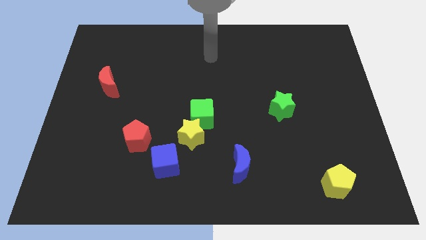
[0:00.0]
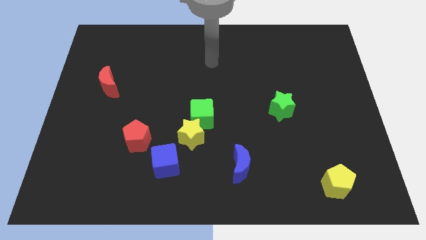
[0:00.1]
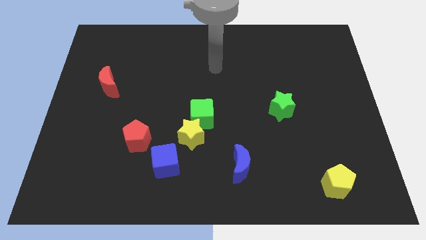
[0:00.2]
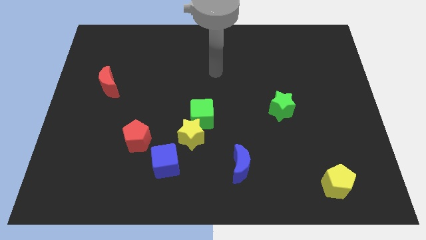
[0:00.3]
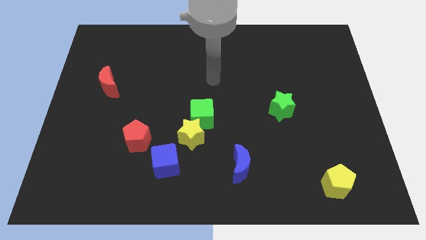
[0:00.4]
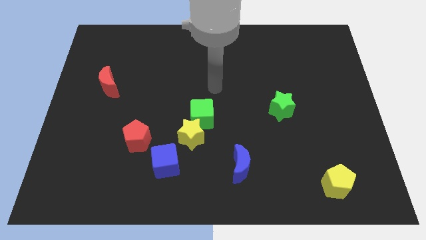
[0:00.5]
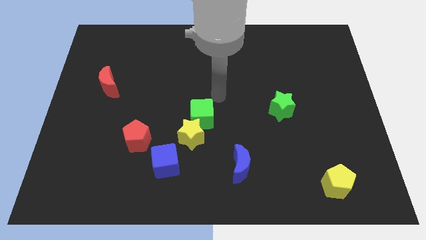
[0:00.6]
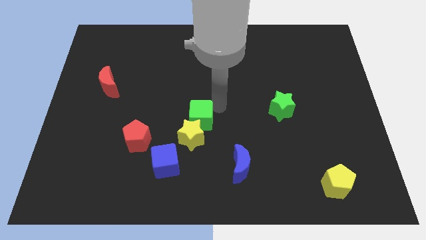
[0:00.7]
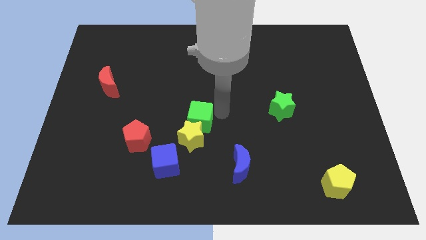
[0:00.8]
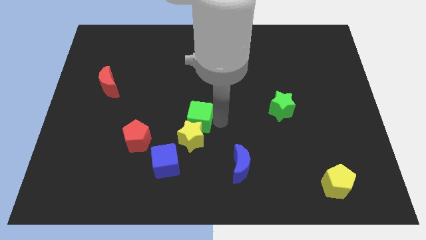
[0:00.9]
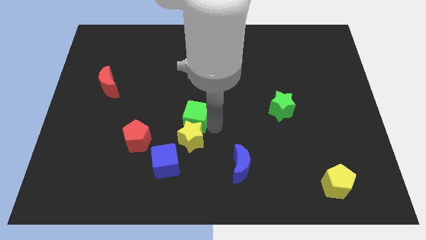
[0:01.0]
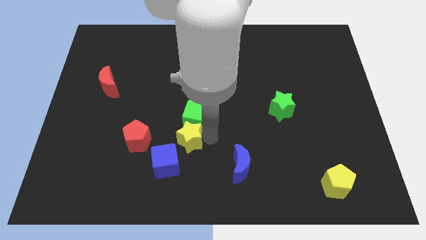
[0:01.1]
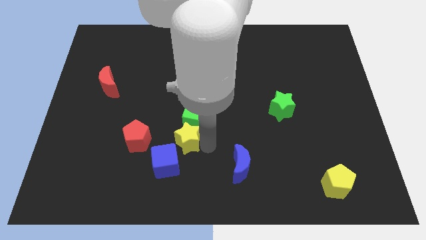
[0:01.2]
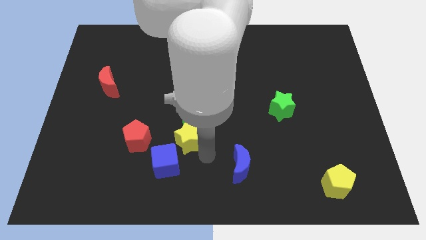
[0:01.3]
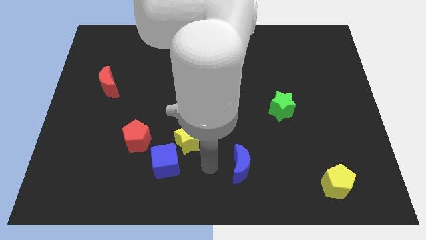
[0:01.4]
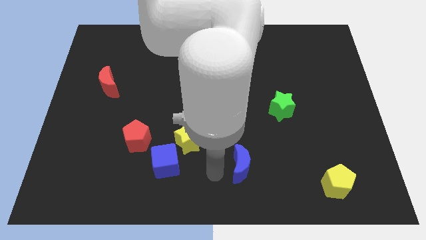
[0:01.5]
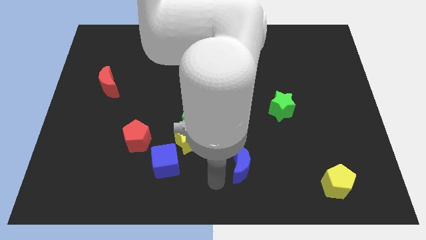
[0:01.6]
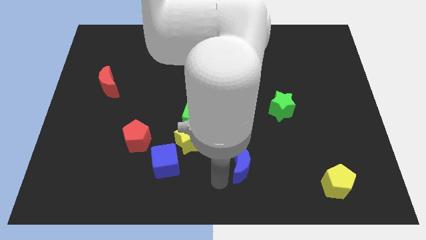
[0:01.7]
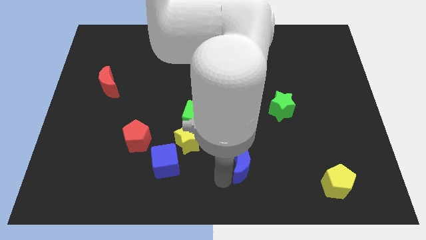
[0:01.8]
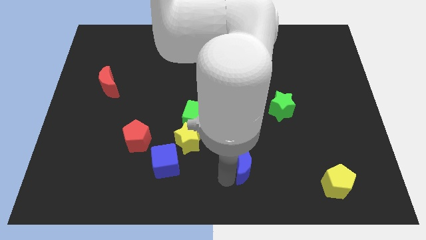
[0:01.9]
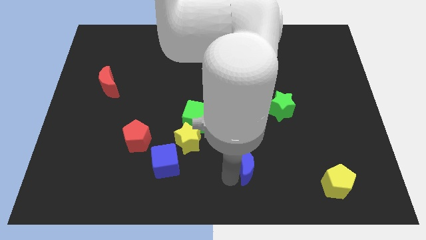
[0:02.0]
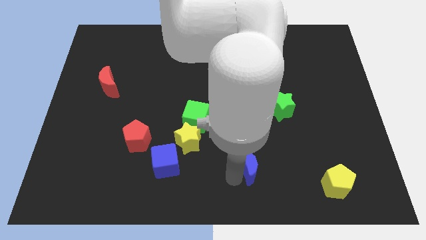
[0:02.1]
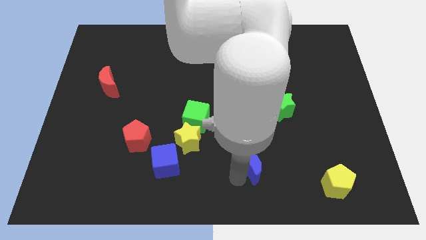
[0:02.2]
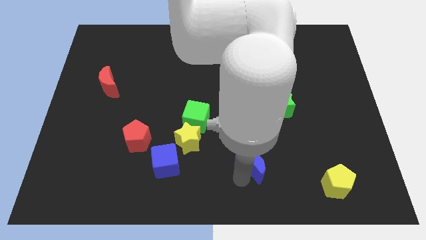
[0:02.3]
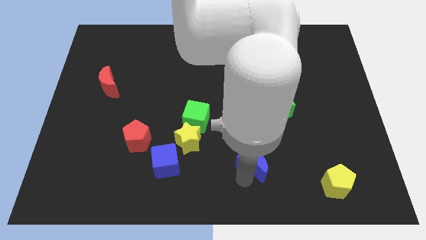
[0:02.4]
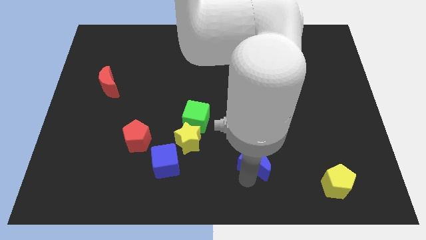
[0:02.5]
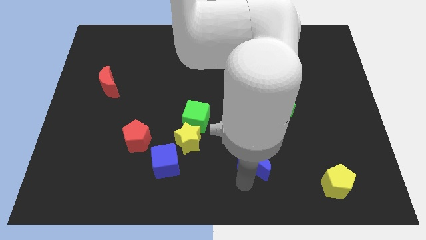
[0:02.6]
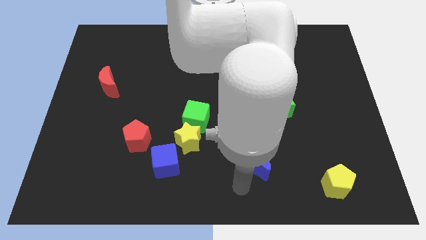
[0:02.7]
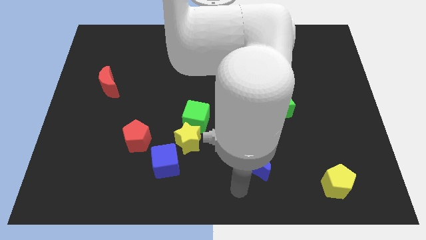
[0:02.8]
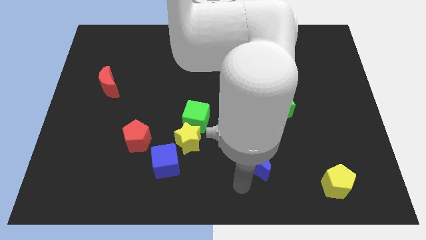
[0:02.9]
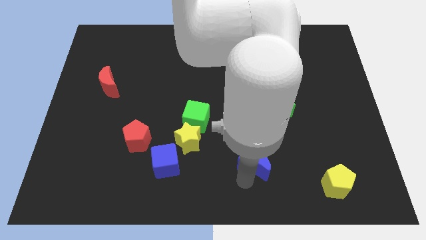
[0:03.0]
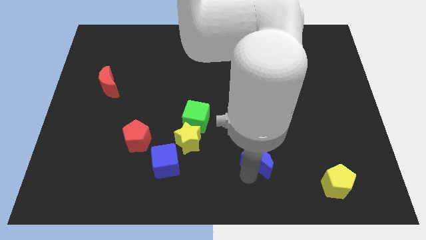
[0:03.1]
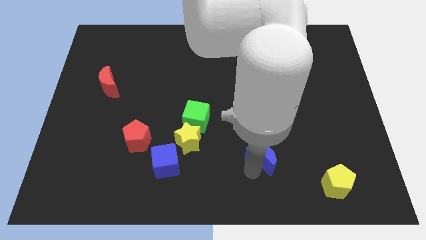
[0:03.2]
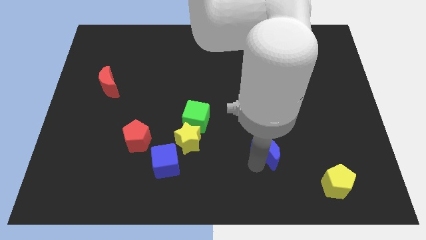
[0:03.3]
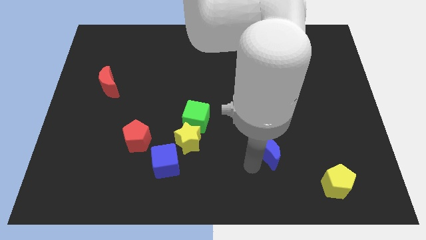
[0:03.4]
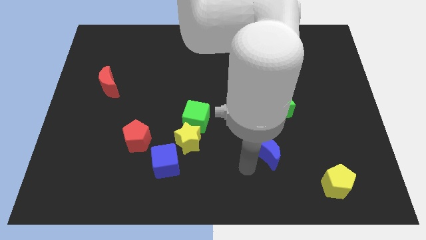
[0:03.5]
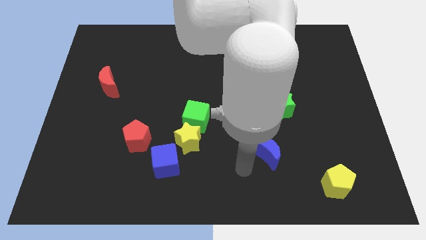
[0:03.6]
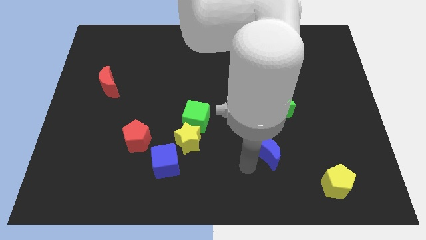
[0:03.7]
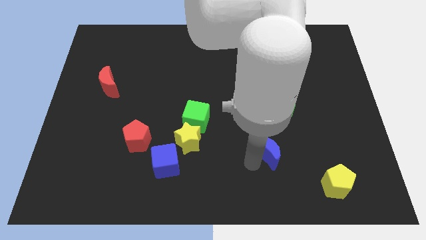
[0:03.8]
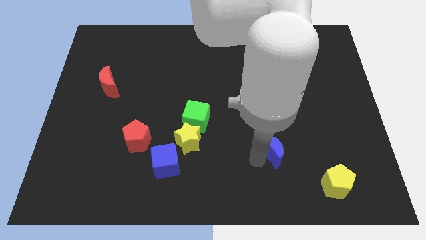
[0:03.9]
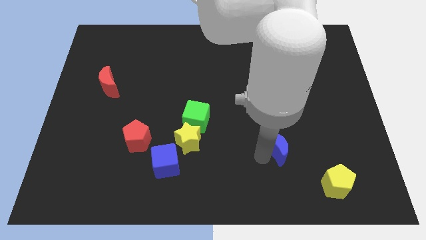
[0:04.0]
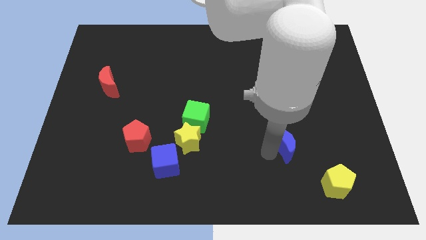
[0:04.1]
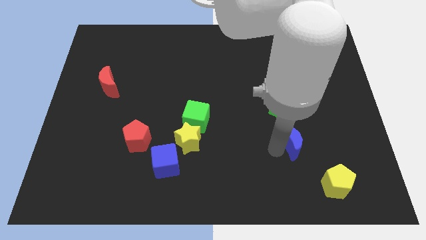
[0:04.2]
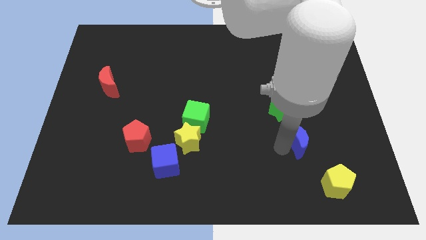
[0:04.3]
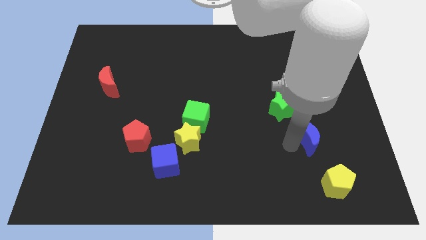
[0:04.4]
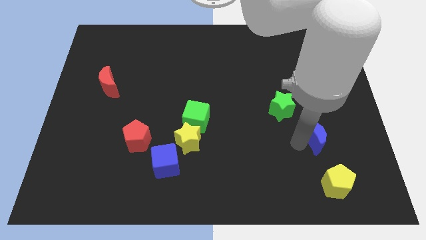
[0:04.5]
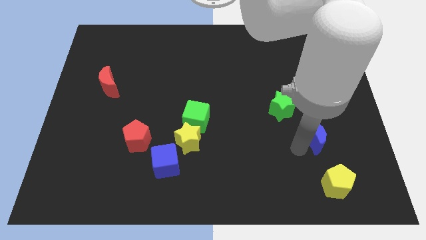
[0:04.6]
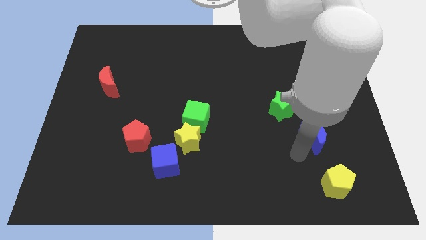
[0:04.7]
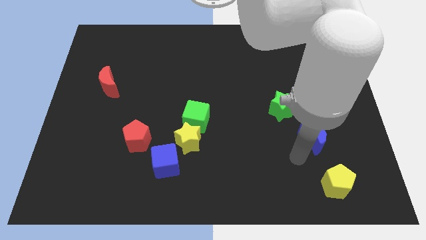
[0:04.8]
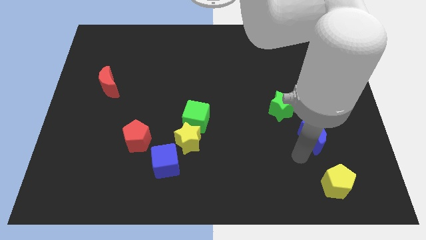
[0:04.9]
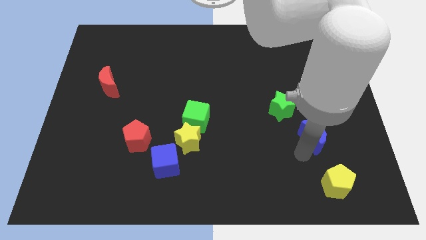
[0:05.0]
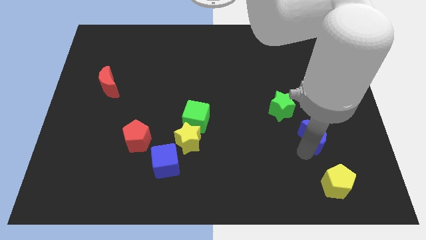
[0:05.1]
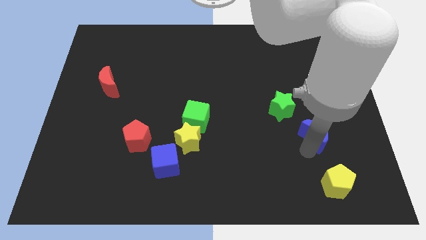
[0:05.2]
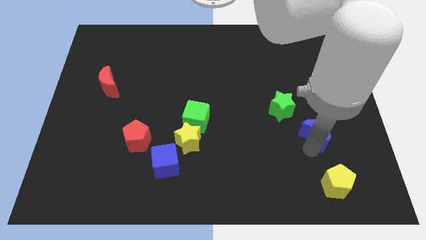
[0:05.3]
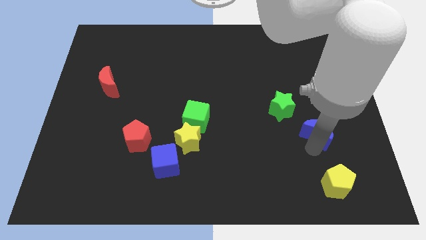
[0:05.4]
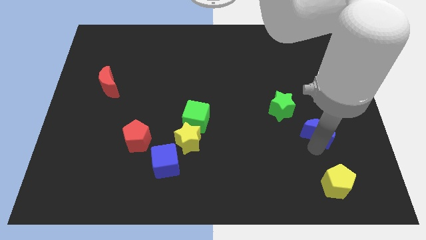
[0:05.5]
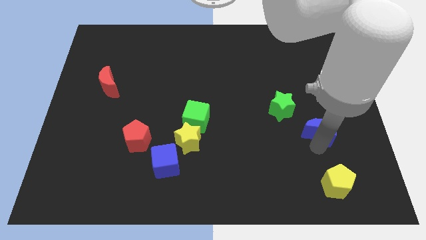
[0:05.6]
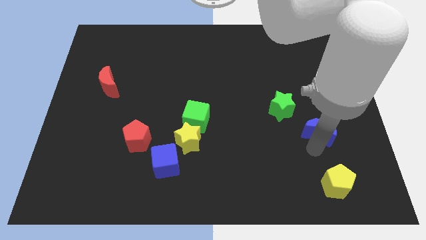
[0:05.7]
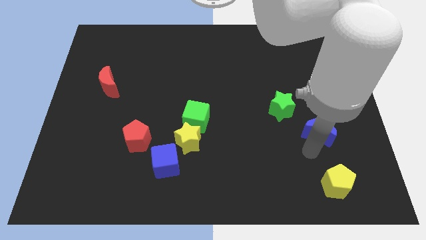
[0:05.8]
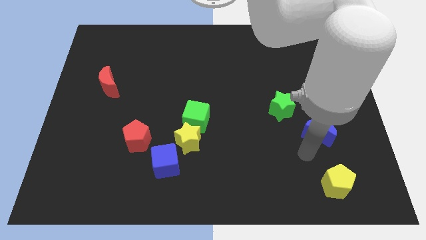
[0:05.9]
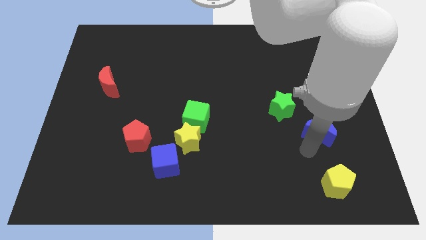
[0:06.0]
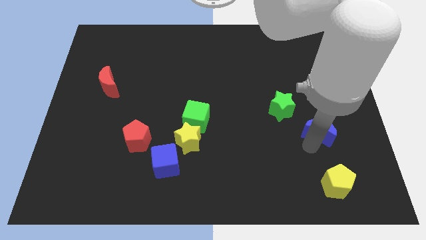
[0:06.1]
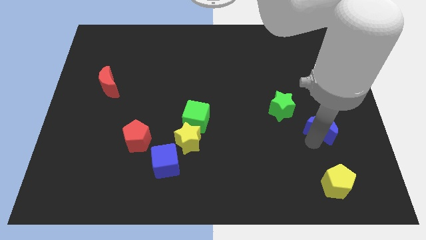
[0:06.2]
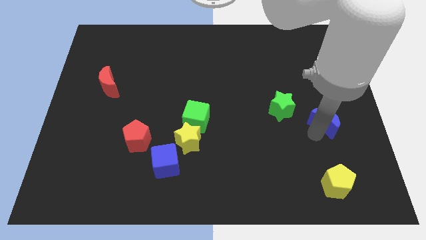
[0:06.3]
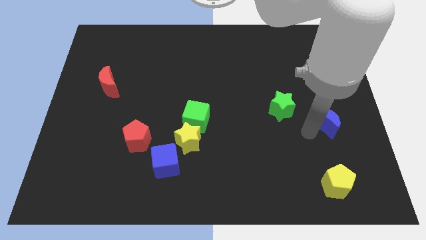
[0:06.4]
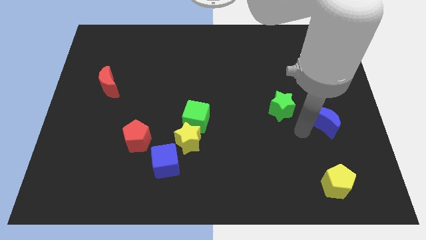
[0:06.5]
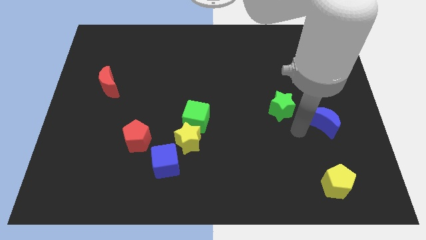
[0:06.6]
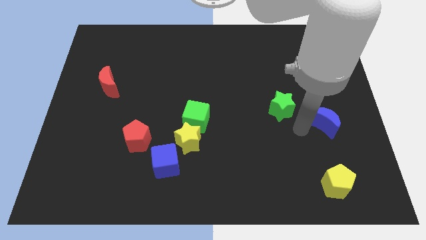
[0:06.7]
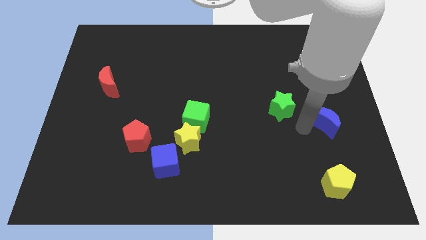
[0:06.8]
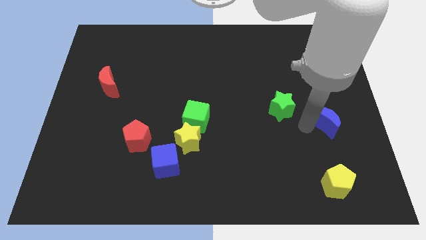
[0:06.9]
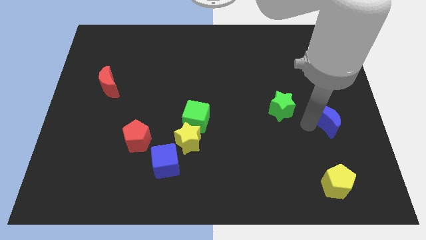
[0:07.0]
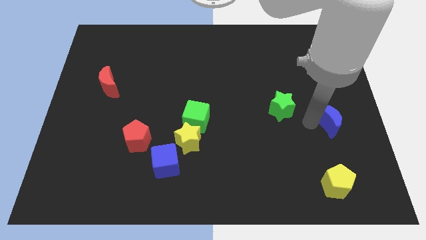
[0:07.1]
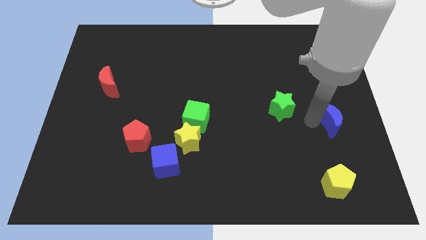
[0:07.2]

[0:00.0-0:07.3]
push the blue moon to the center right
